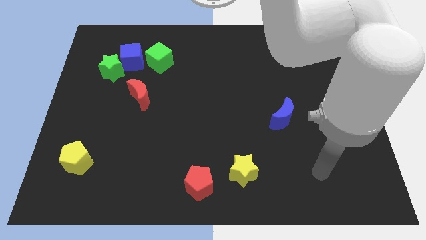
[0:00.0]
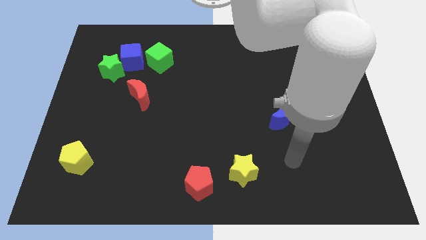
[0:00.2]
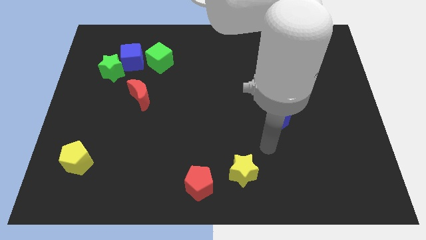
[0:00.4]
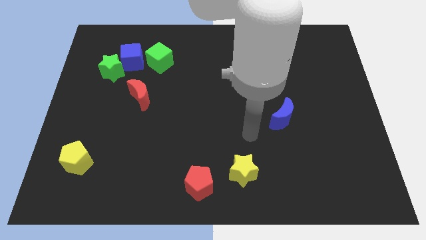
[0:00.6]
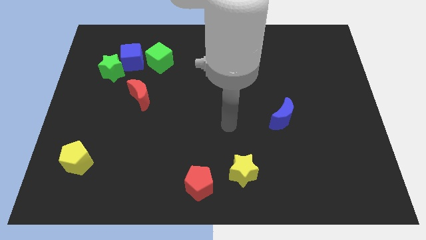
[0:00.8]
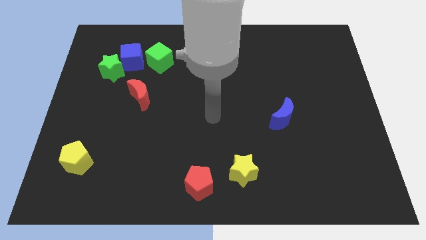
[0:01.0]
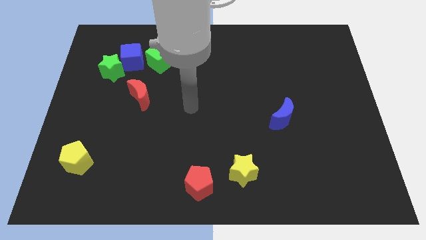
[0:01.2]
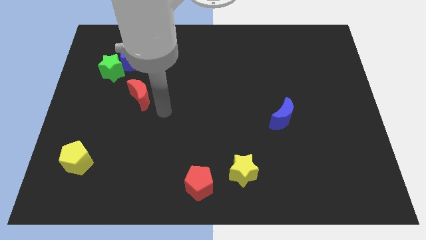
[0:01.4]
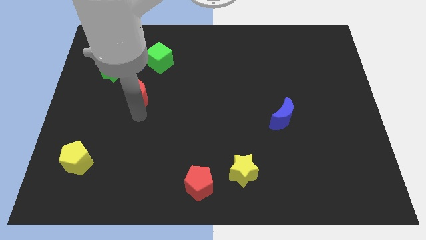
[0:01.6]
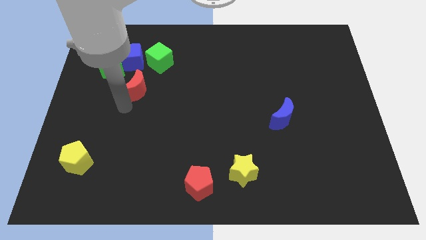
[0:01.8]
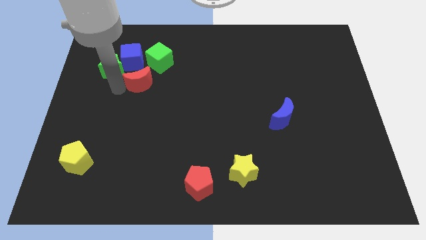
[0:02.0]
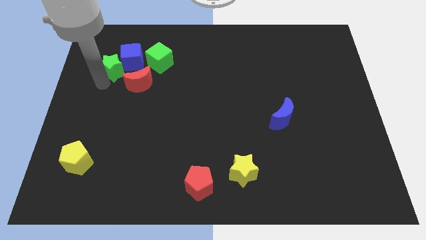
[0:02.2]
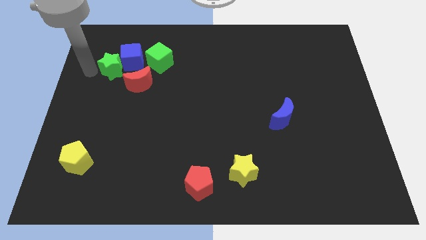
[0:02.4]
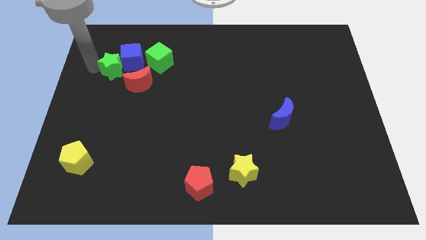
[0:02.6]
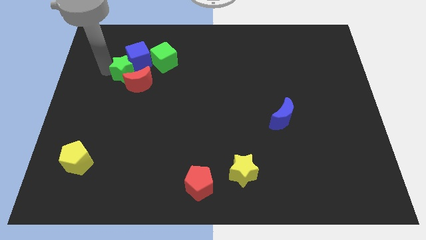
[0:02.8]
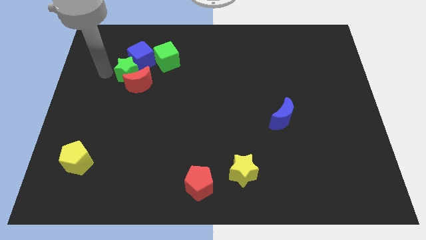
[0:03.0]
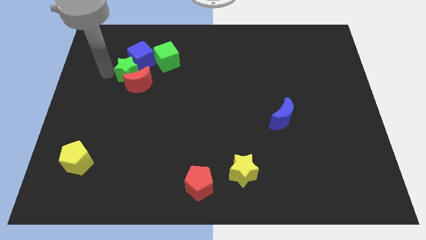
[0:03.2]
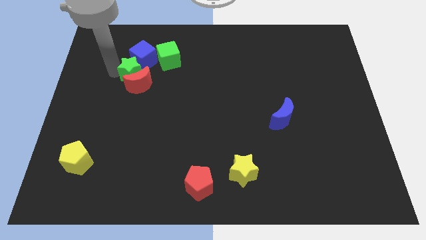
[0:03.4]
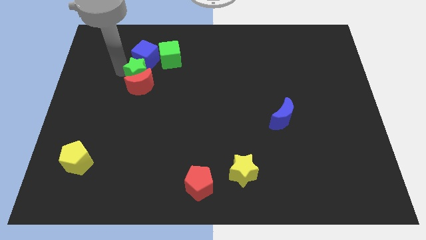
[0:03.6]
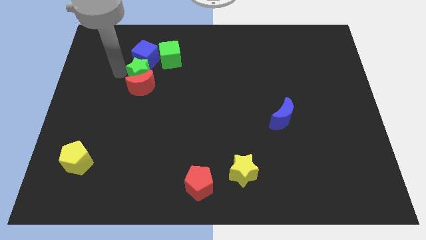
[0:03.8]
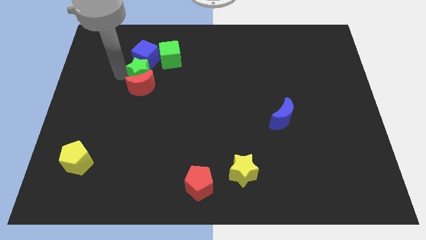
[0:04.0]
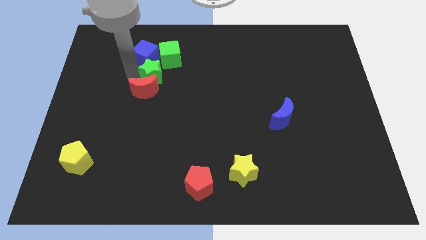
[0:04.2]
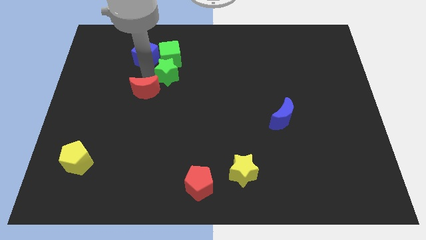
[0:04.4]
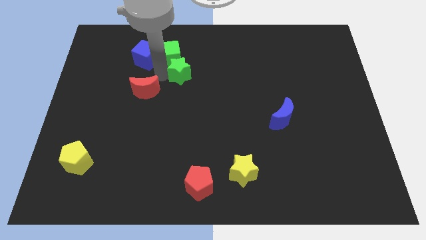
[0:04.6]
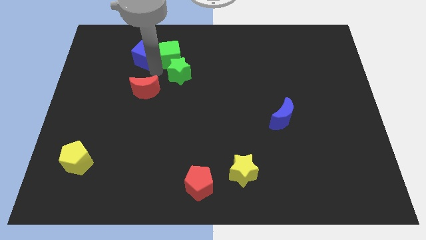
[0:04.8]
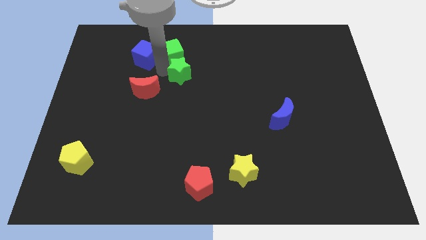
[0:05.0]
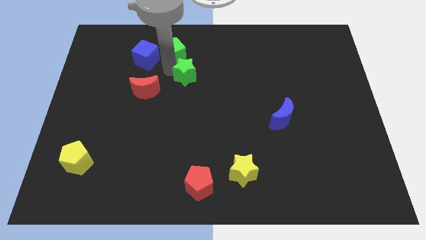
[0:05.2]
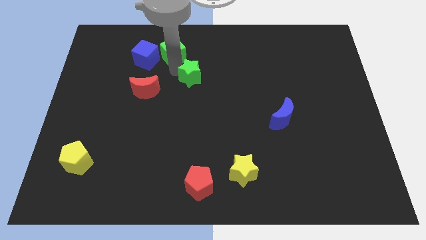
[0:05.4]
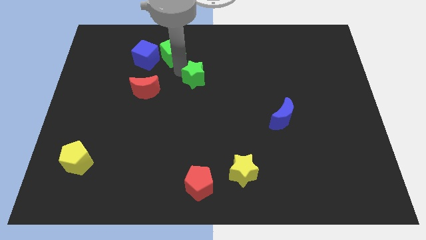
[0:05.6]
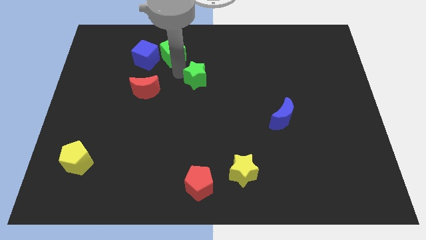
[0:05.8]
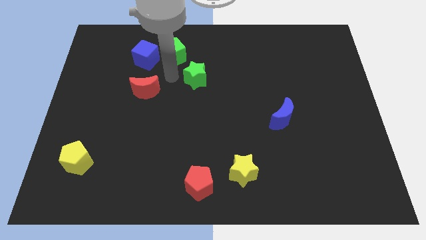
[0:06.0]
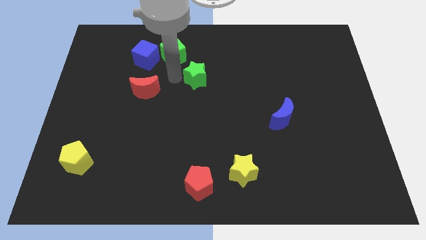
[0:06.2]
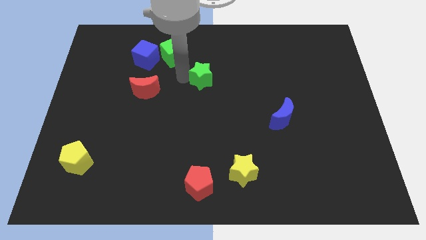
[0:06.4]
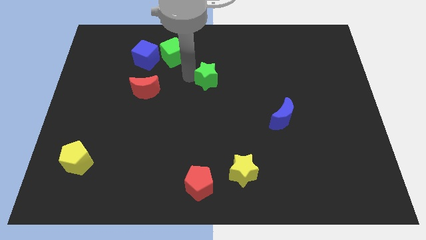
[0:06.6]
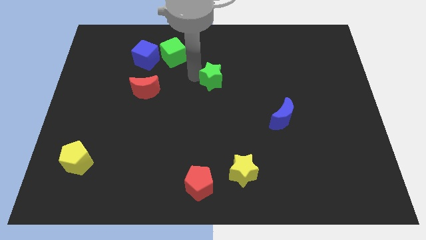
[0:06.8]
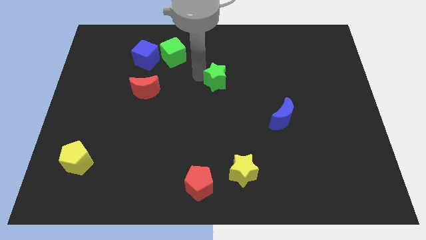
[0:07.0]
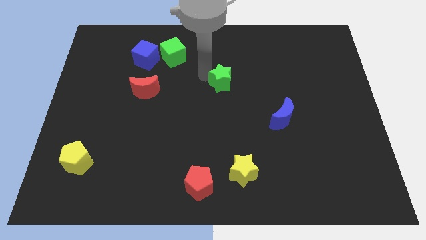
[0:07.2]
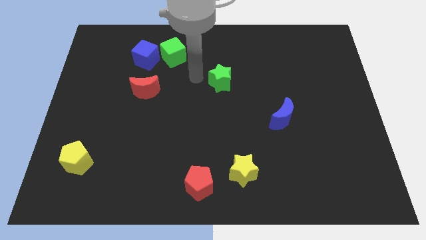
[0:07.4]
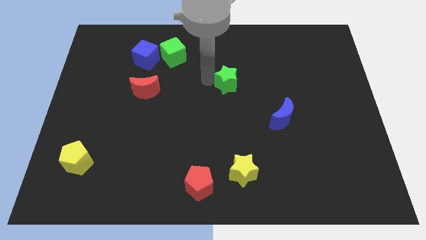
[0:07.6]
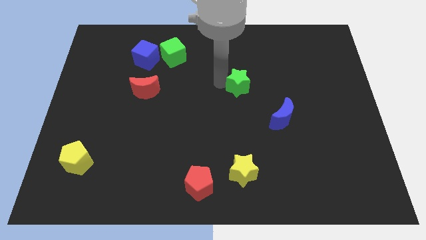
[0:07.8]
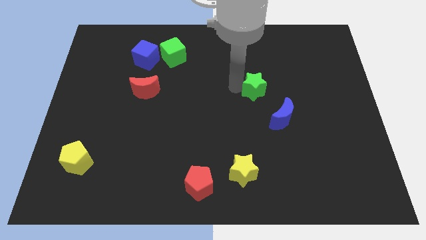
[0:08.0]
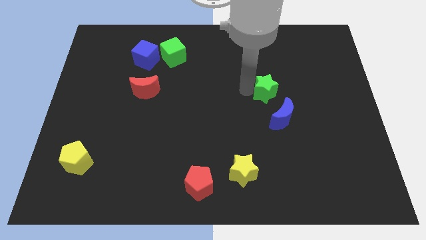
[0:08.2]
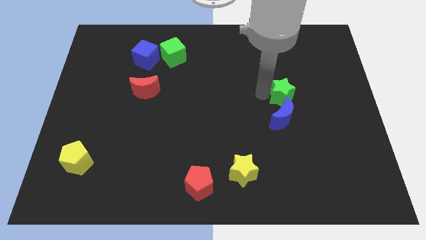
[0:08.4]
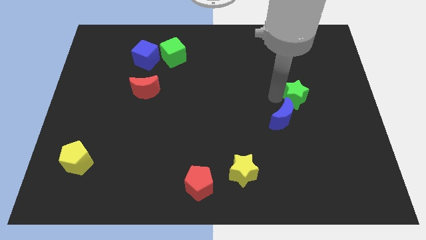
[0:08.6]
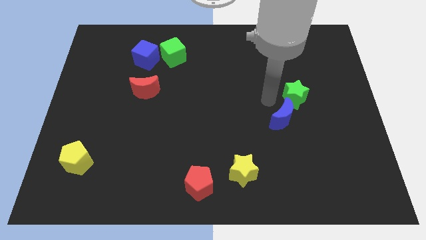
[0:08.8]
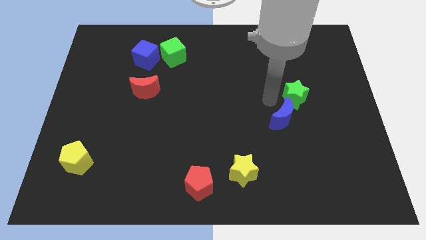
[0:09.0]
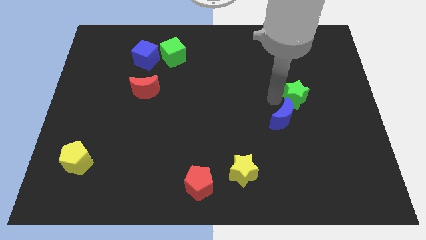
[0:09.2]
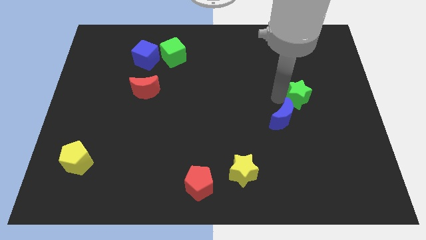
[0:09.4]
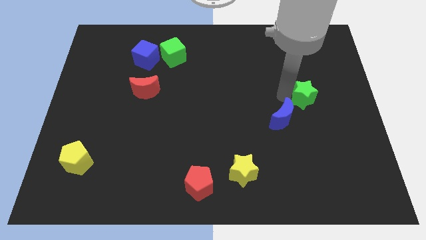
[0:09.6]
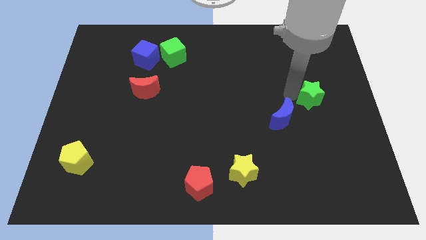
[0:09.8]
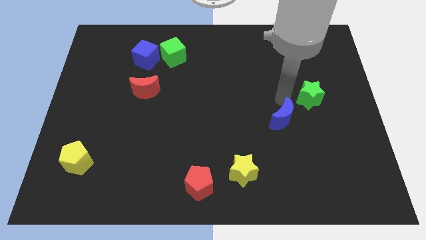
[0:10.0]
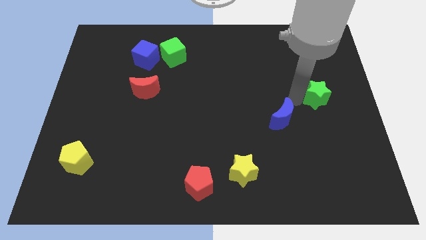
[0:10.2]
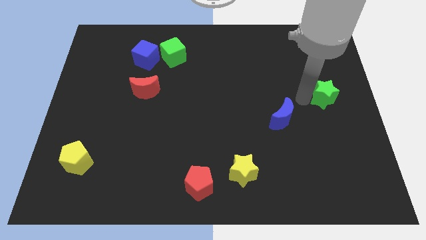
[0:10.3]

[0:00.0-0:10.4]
push the green star to the center right

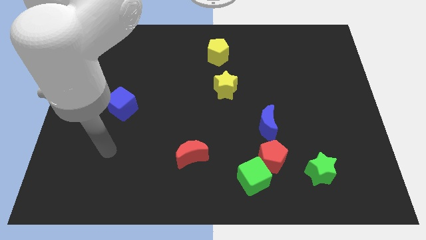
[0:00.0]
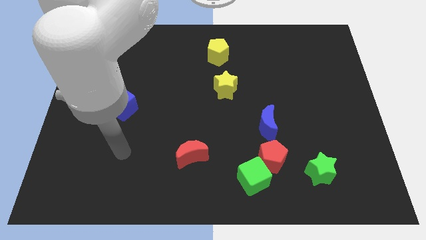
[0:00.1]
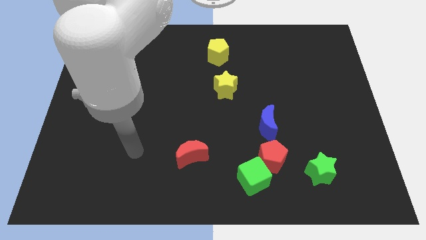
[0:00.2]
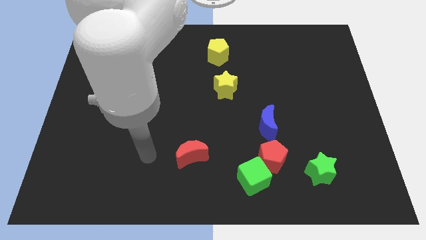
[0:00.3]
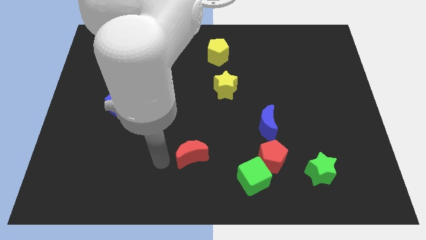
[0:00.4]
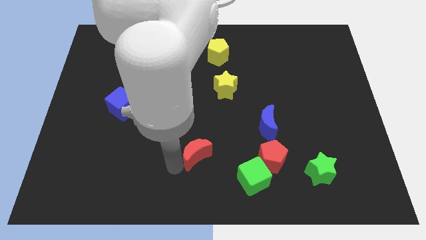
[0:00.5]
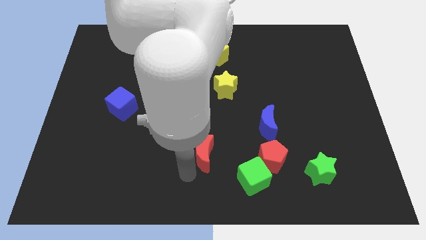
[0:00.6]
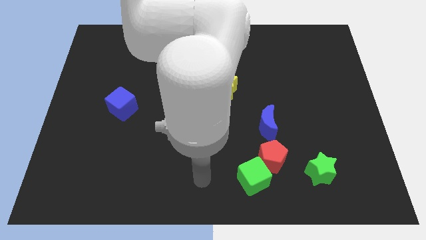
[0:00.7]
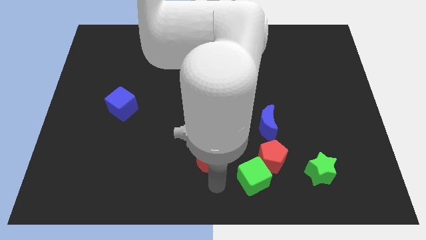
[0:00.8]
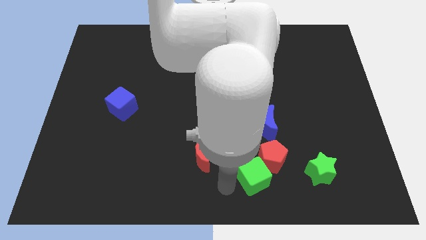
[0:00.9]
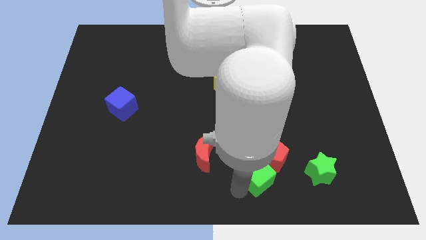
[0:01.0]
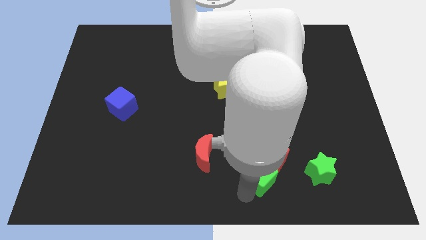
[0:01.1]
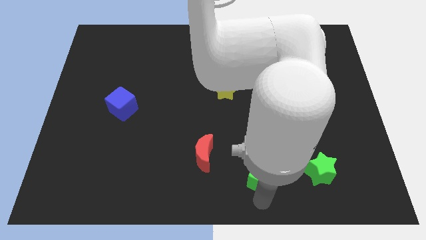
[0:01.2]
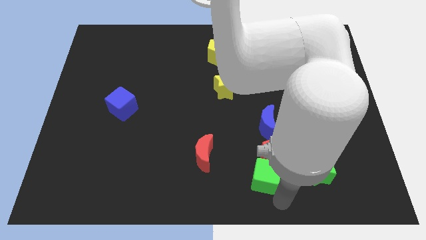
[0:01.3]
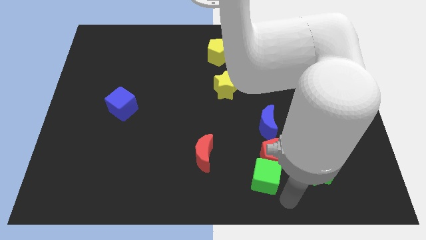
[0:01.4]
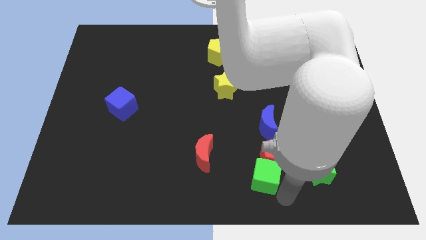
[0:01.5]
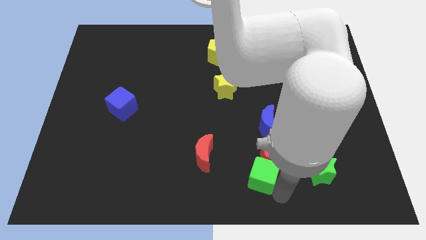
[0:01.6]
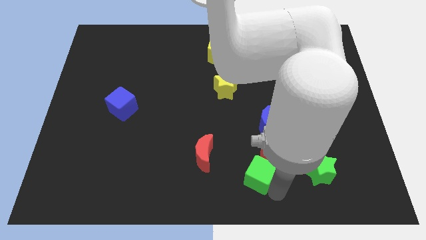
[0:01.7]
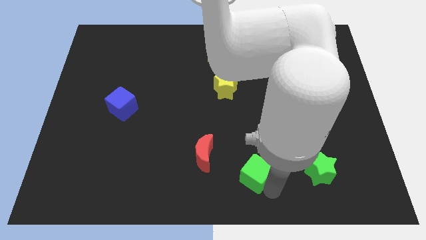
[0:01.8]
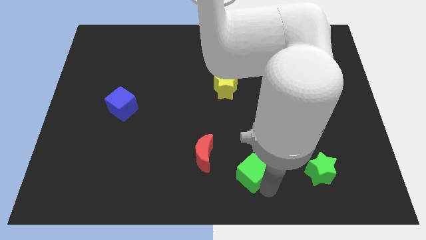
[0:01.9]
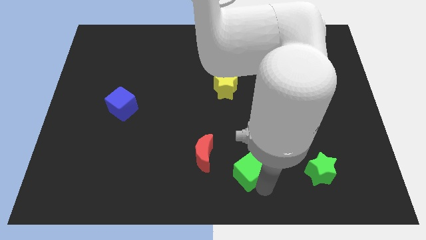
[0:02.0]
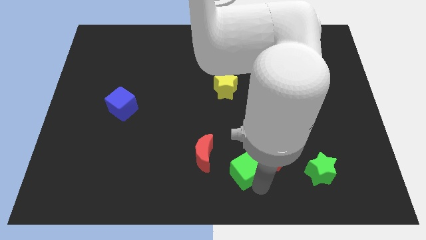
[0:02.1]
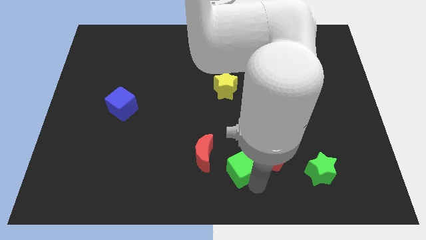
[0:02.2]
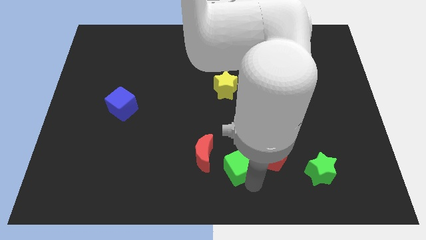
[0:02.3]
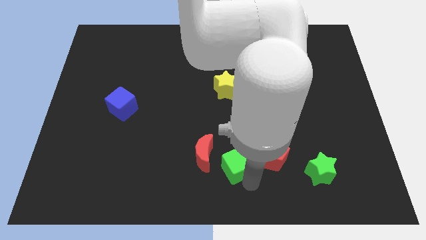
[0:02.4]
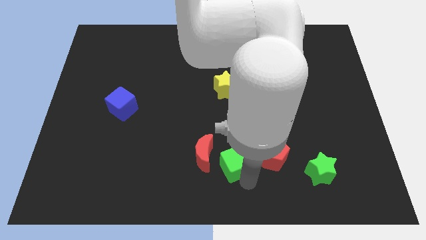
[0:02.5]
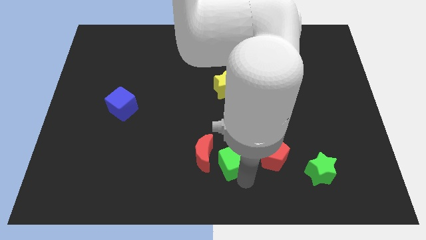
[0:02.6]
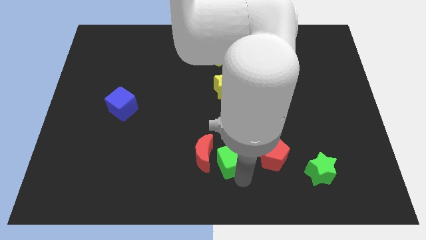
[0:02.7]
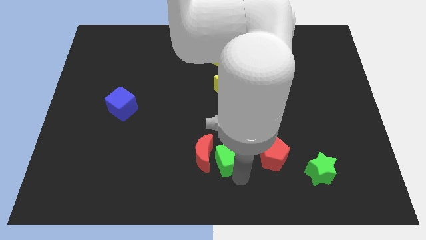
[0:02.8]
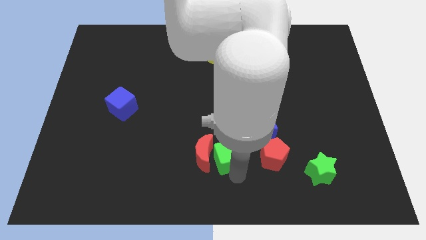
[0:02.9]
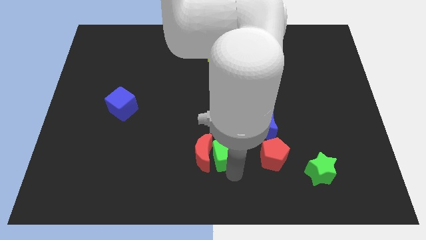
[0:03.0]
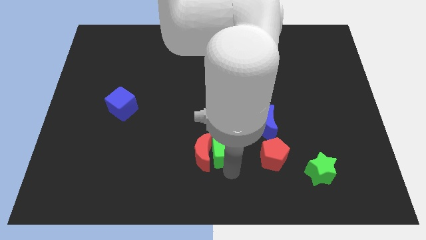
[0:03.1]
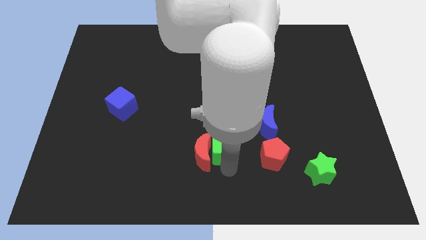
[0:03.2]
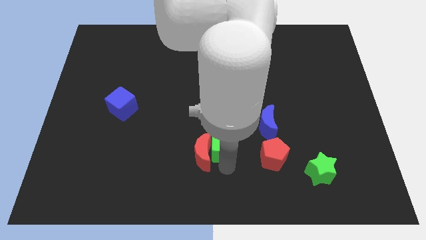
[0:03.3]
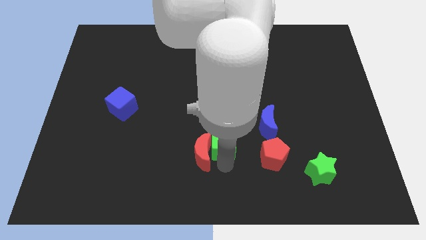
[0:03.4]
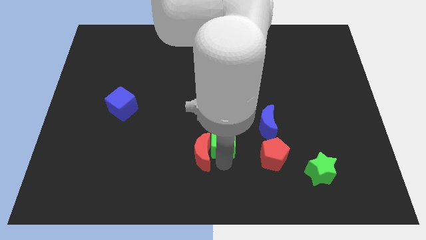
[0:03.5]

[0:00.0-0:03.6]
push the green cube to the middle
